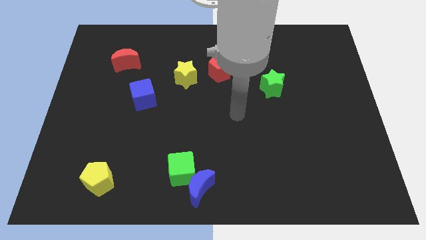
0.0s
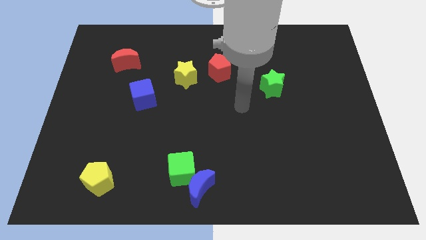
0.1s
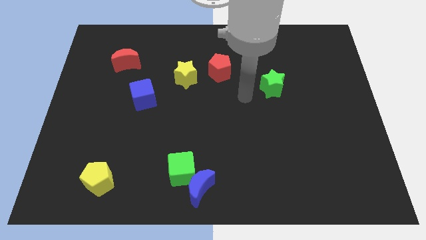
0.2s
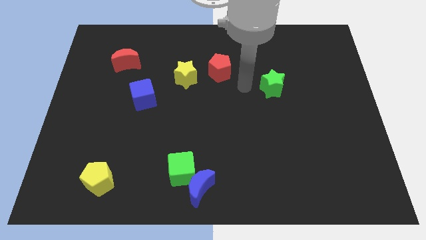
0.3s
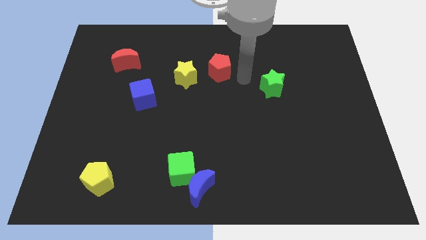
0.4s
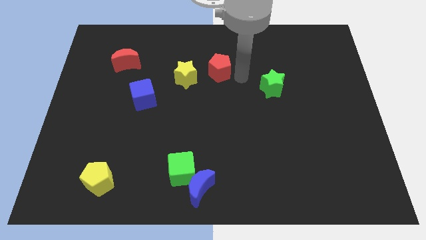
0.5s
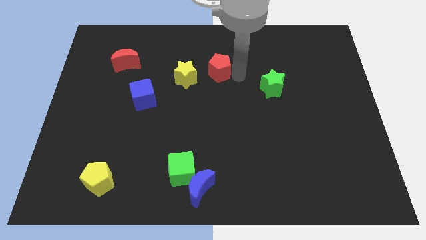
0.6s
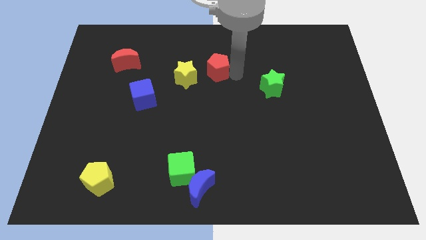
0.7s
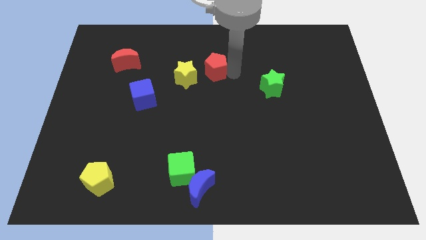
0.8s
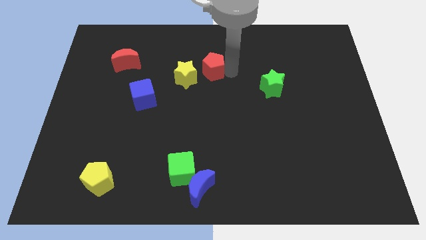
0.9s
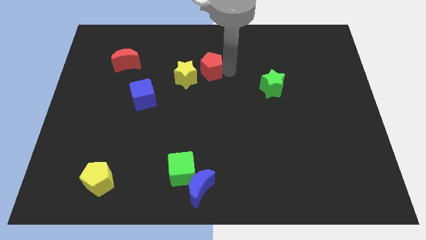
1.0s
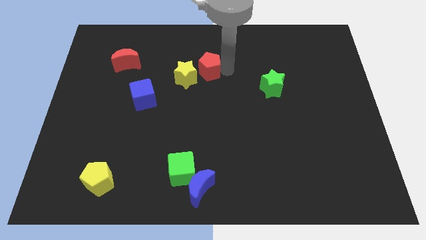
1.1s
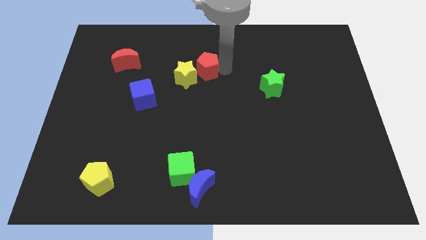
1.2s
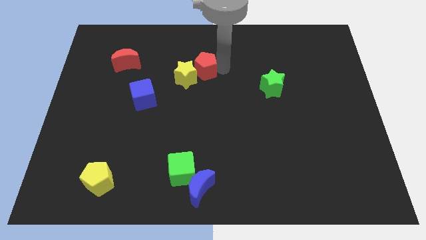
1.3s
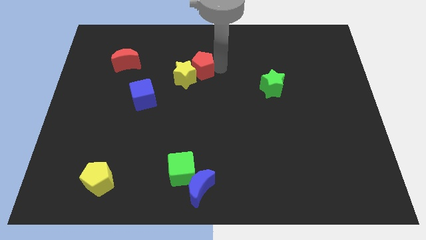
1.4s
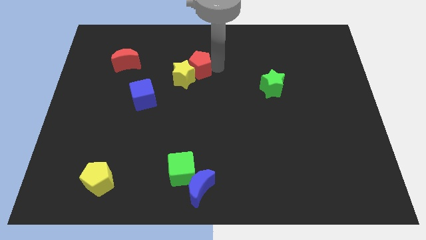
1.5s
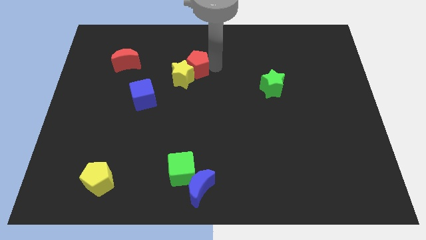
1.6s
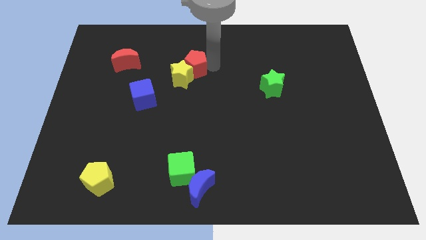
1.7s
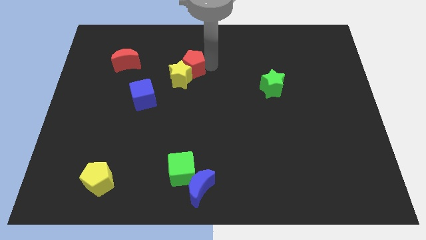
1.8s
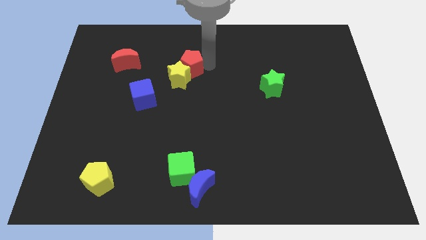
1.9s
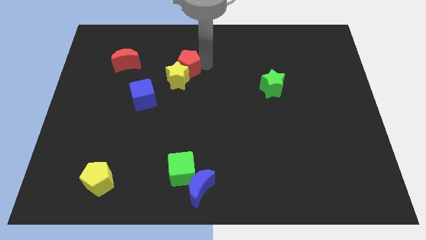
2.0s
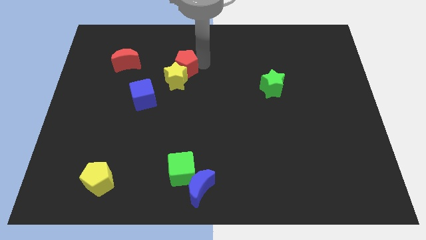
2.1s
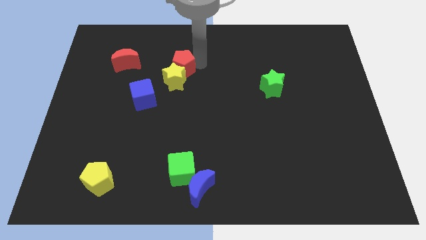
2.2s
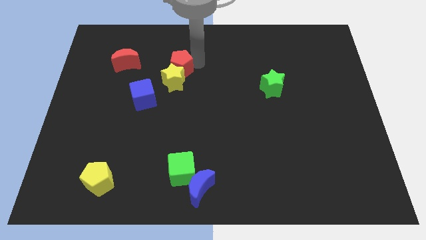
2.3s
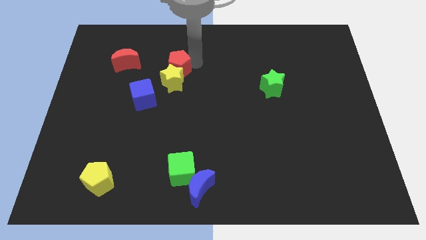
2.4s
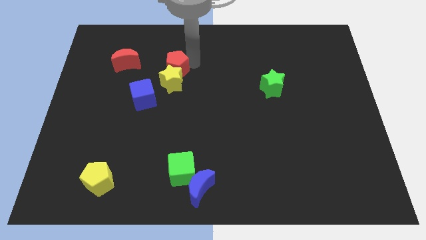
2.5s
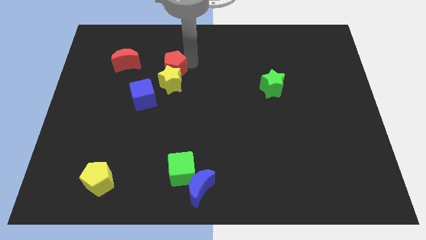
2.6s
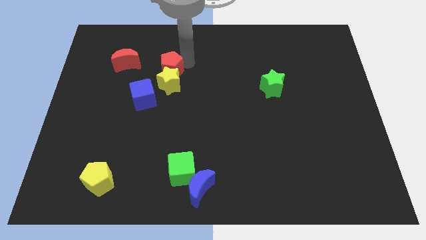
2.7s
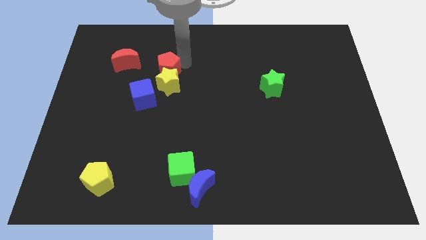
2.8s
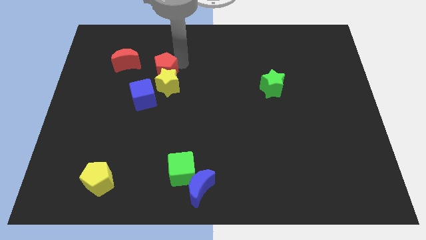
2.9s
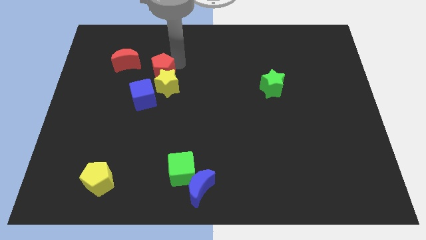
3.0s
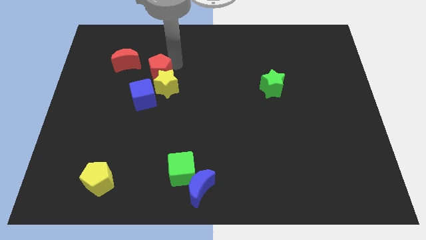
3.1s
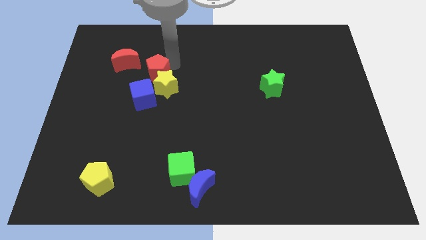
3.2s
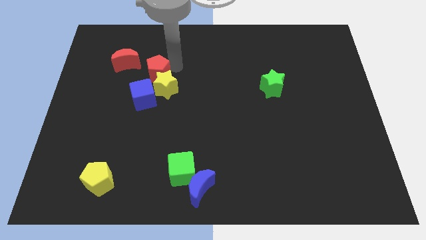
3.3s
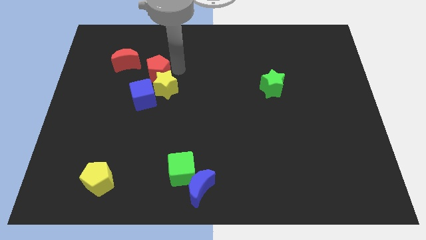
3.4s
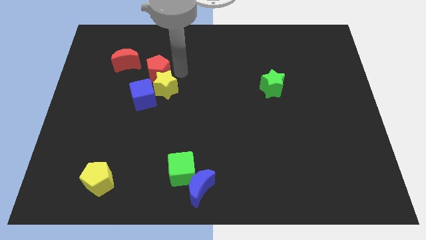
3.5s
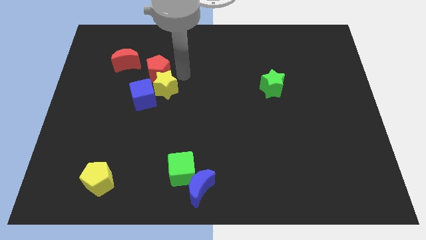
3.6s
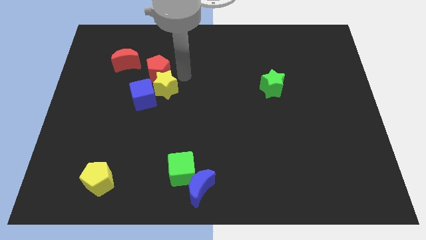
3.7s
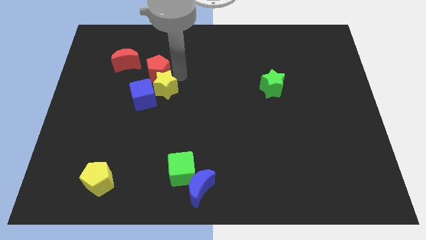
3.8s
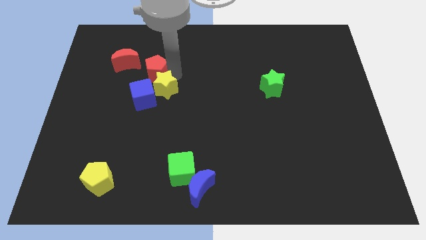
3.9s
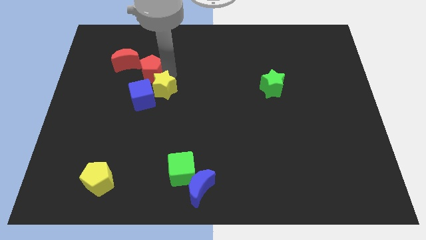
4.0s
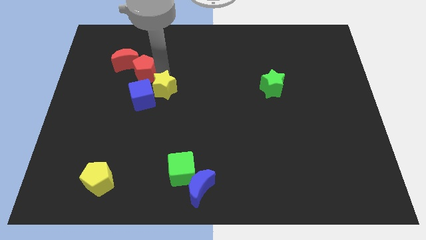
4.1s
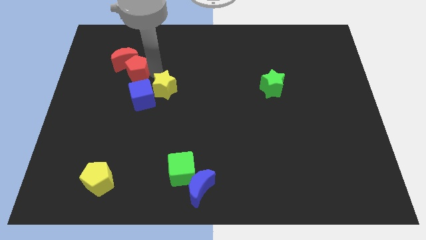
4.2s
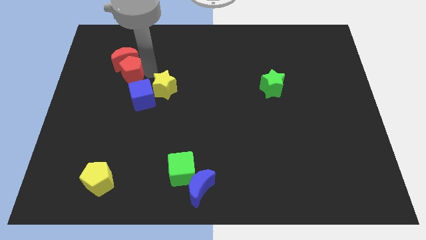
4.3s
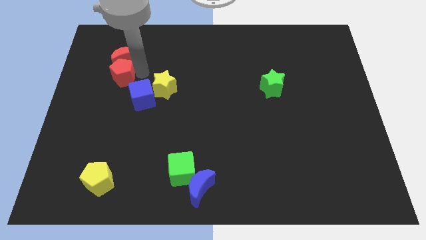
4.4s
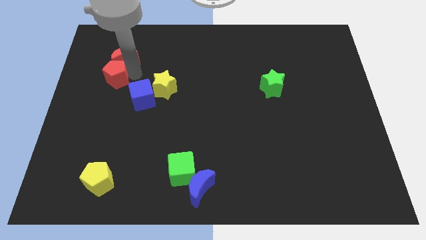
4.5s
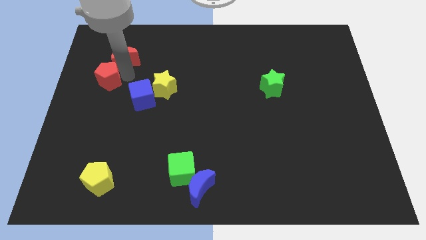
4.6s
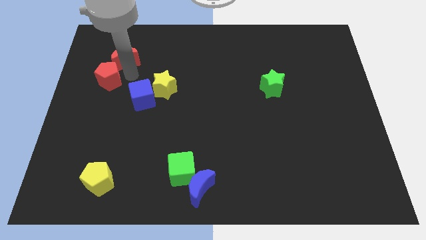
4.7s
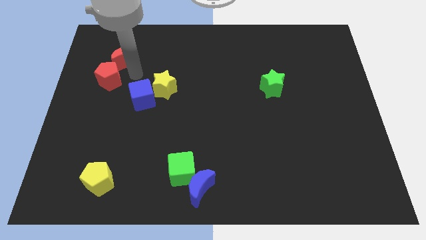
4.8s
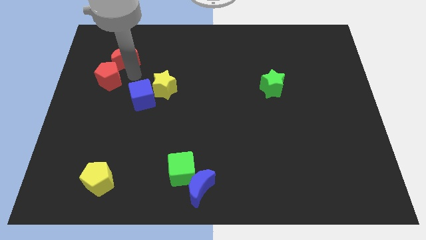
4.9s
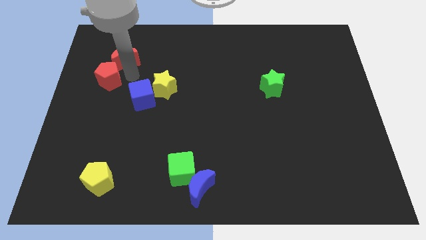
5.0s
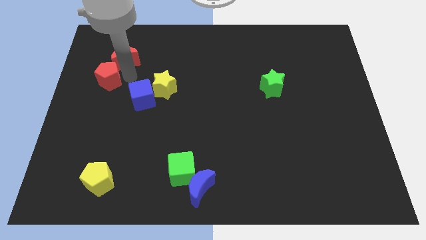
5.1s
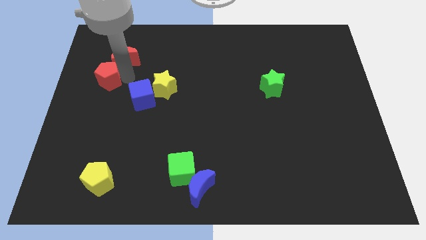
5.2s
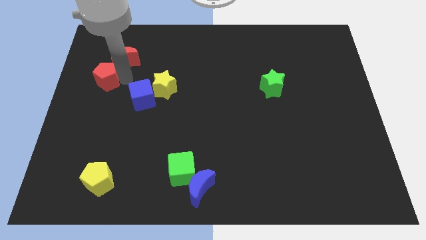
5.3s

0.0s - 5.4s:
put the red pentagon to the left side

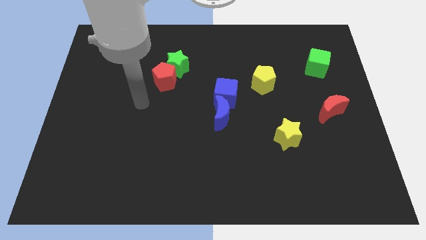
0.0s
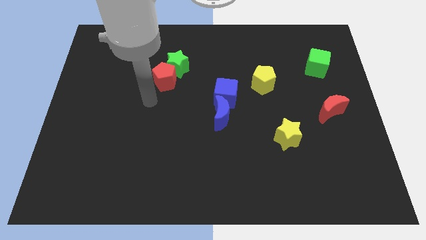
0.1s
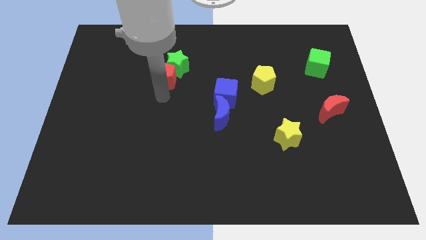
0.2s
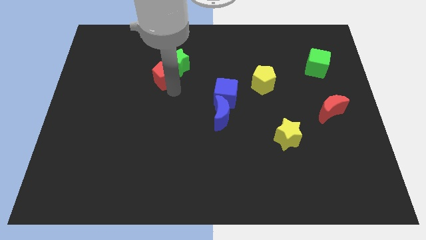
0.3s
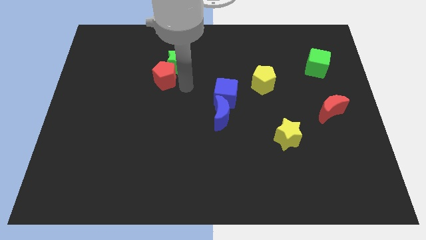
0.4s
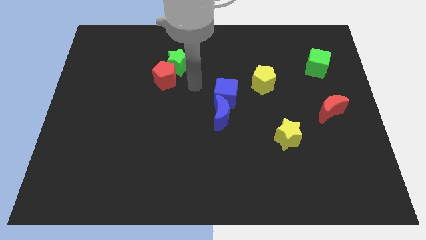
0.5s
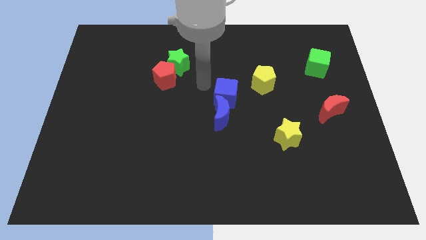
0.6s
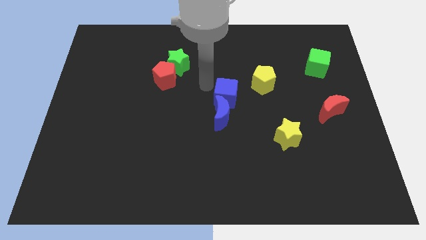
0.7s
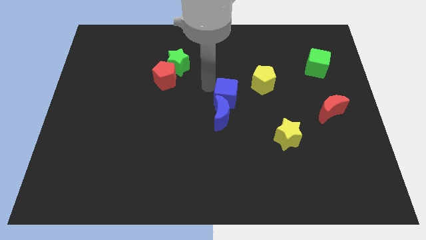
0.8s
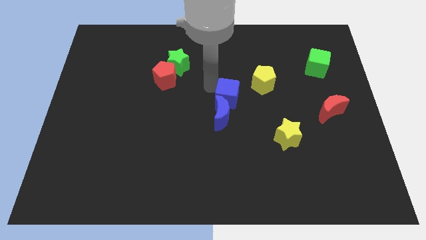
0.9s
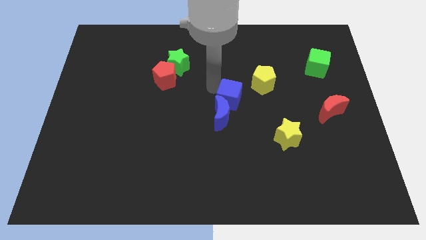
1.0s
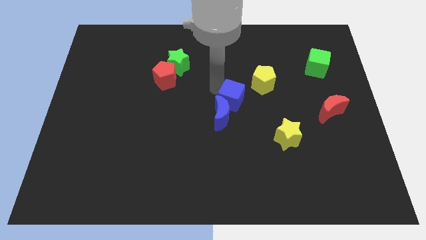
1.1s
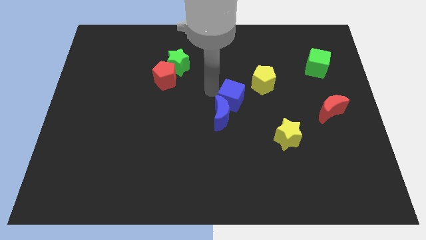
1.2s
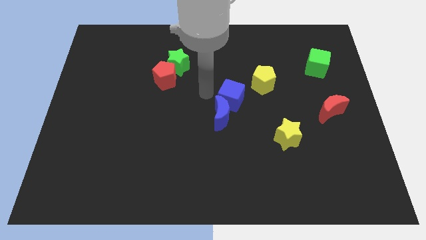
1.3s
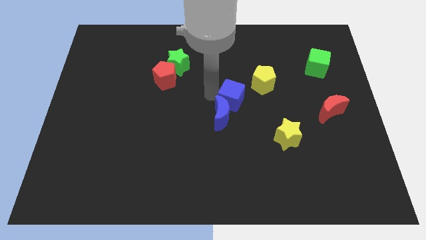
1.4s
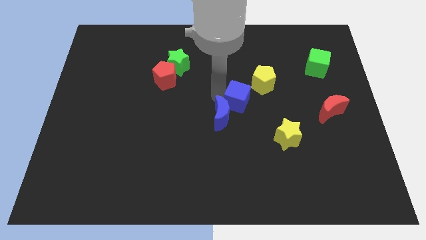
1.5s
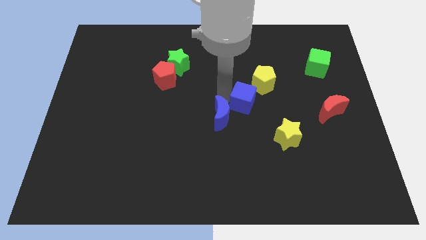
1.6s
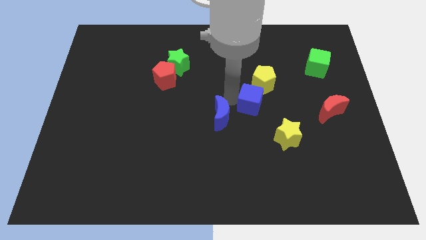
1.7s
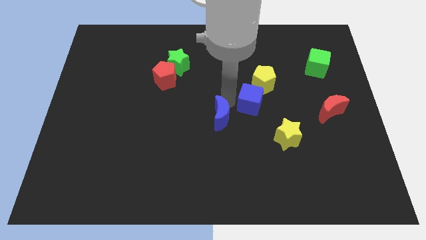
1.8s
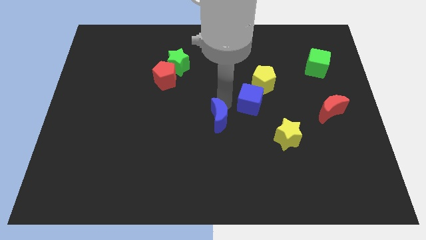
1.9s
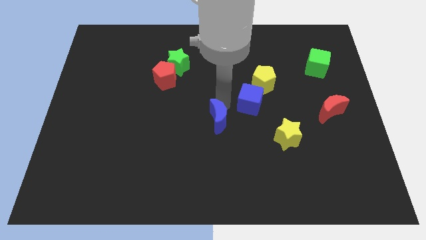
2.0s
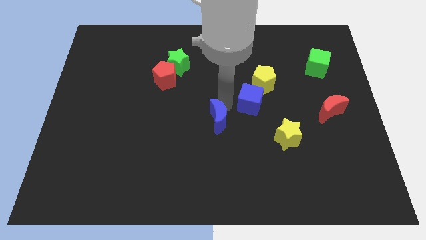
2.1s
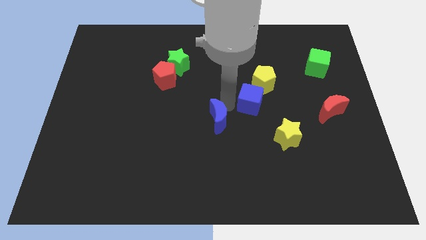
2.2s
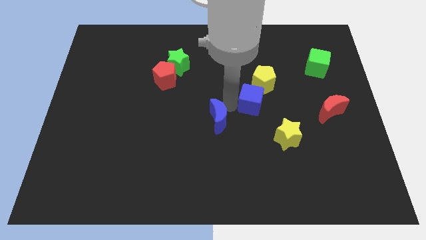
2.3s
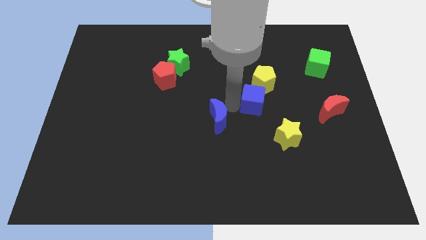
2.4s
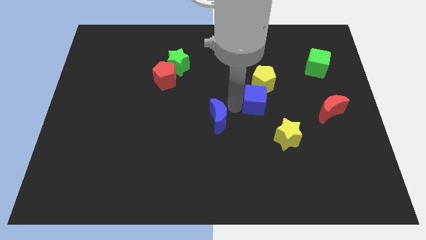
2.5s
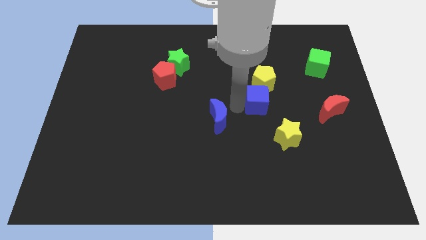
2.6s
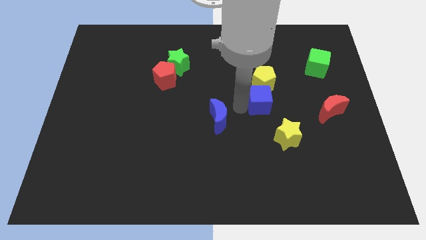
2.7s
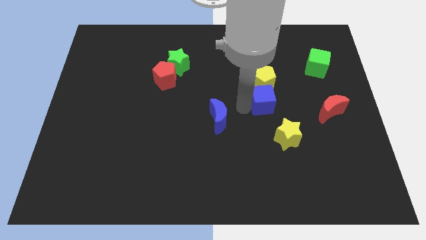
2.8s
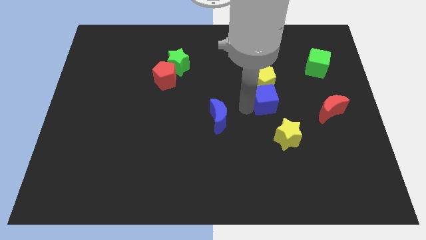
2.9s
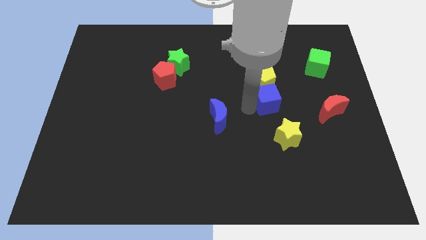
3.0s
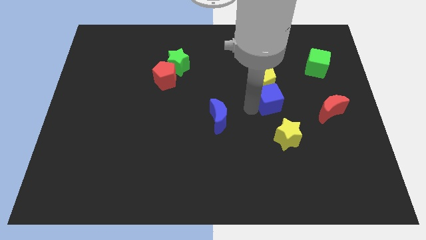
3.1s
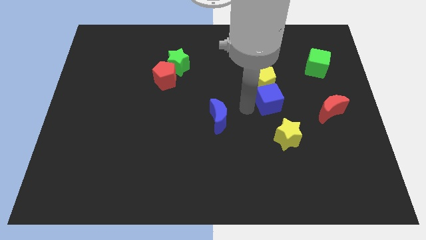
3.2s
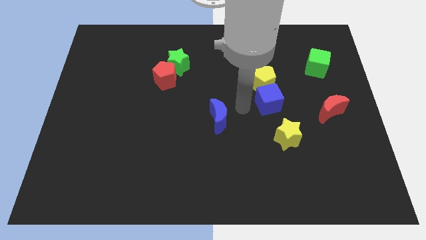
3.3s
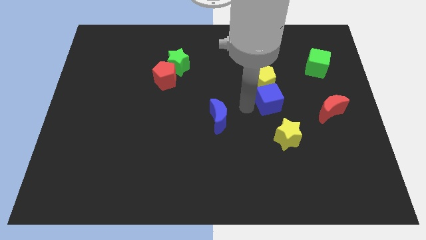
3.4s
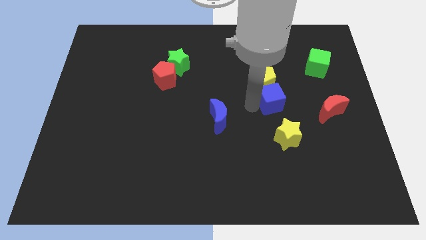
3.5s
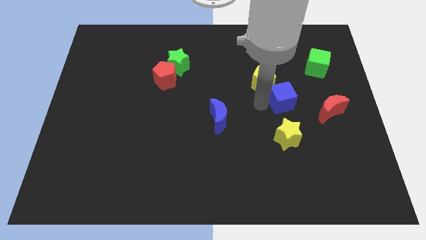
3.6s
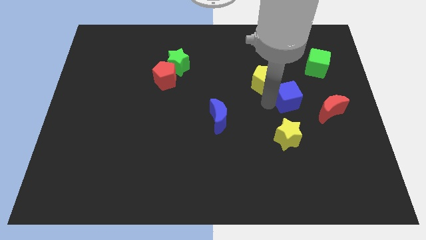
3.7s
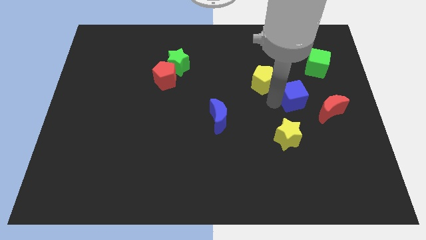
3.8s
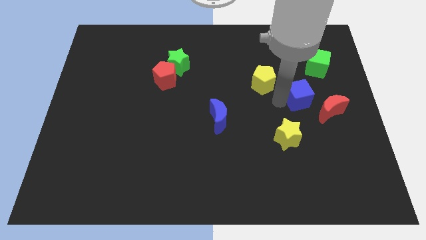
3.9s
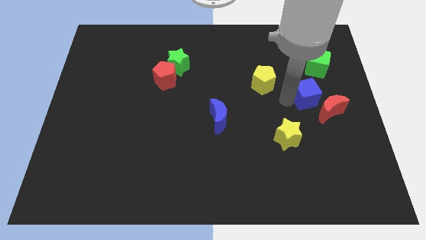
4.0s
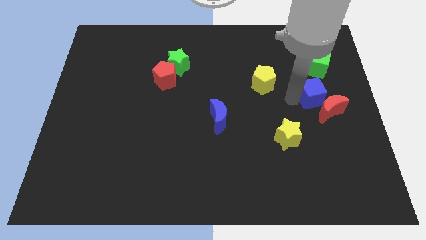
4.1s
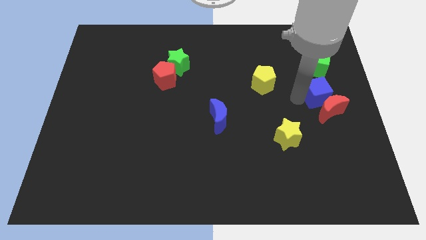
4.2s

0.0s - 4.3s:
move the blue cube to the right side of the board
